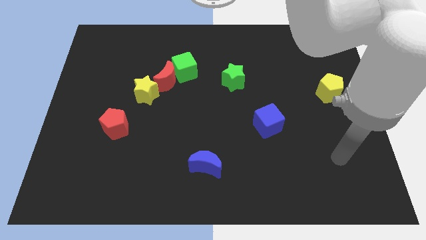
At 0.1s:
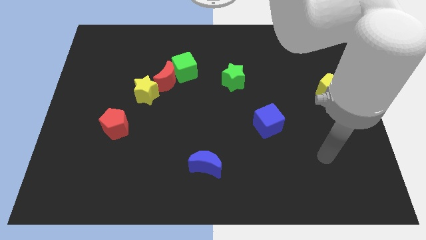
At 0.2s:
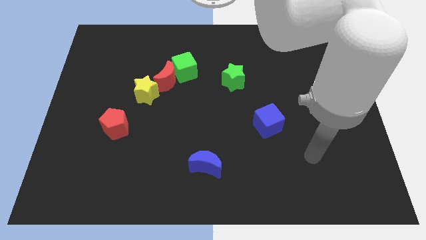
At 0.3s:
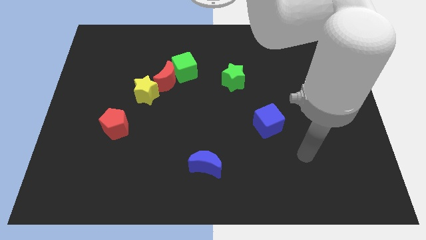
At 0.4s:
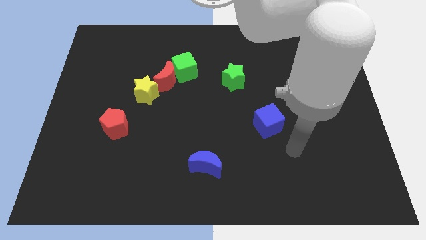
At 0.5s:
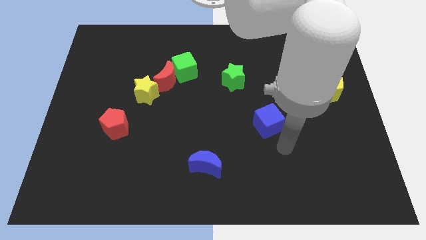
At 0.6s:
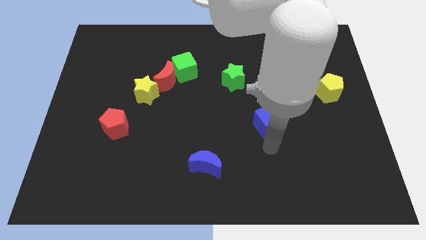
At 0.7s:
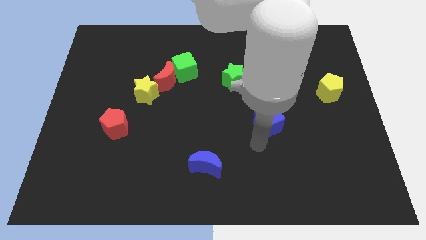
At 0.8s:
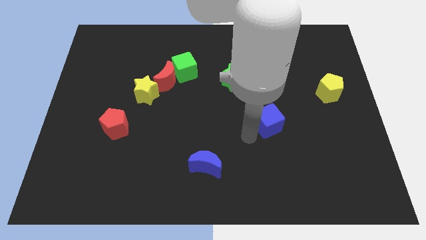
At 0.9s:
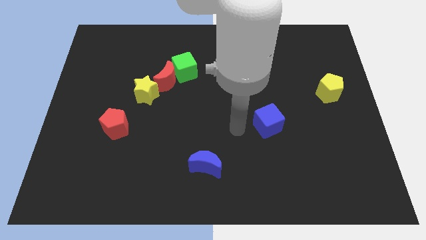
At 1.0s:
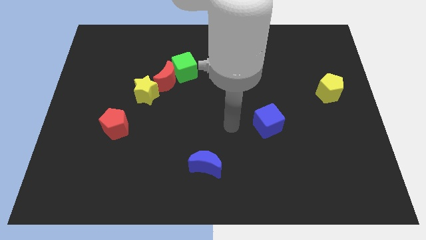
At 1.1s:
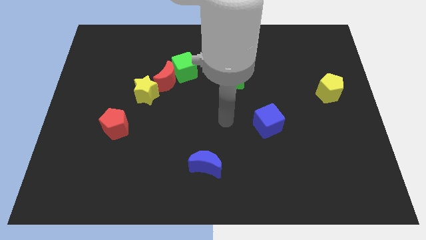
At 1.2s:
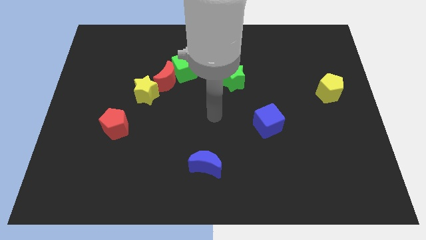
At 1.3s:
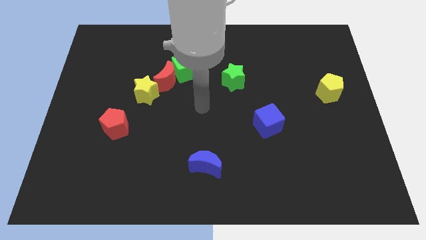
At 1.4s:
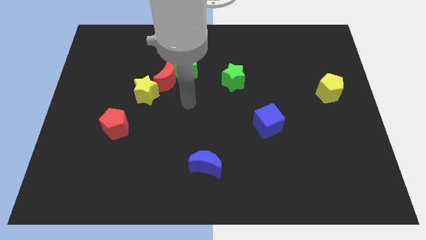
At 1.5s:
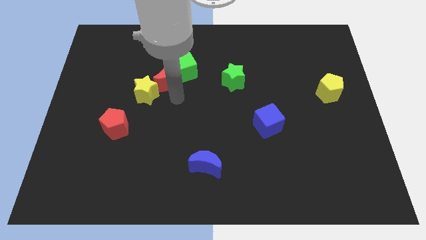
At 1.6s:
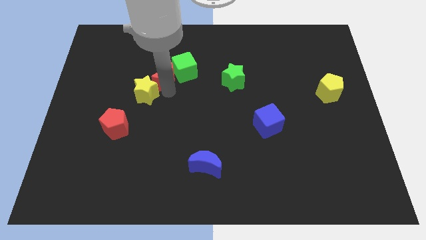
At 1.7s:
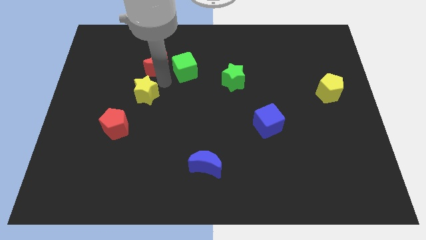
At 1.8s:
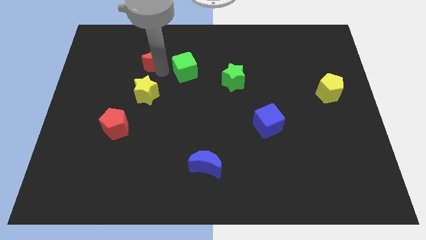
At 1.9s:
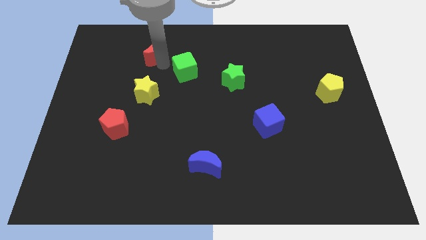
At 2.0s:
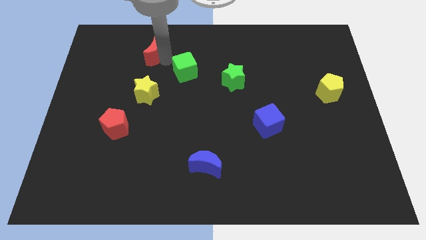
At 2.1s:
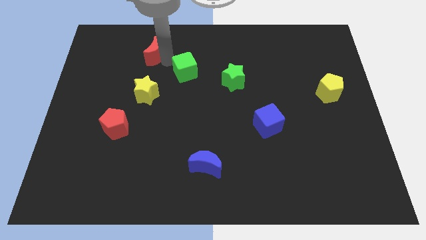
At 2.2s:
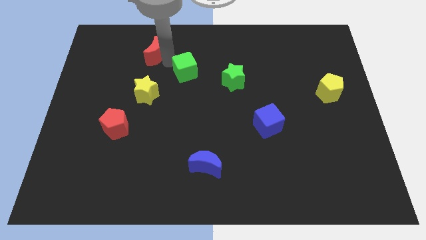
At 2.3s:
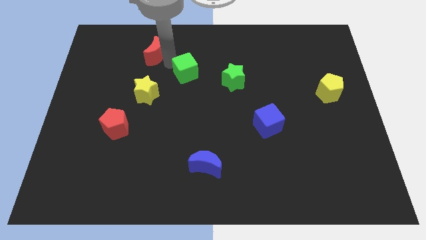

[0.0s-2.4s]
separate the green cube from the red moon

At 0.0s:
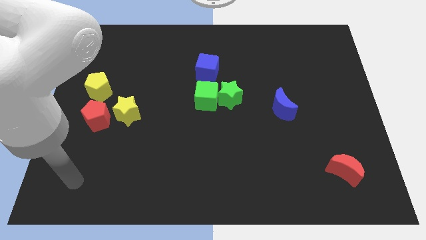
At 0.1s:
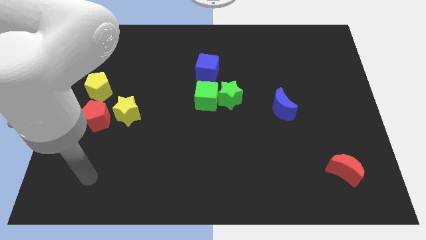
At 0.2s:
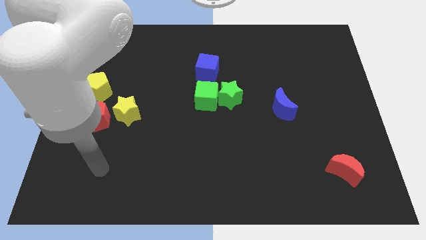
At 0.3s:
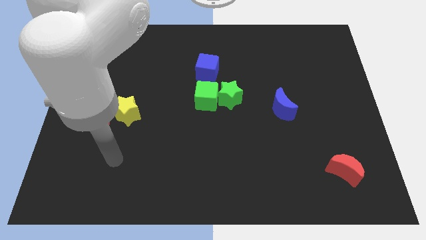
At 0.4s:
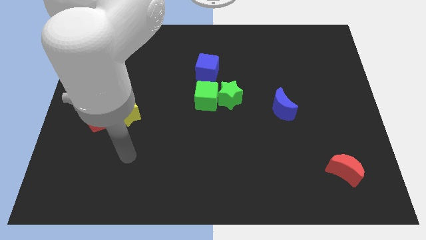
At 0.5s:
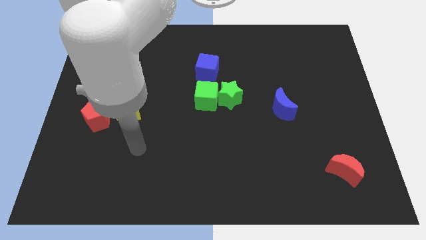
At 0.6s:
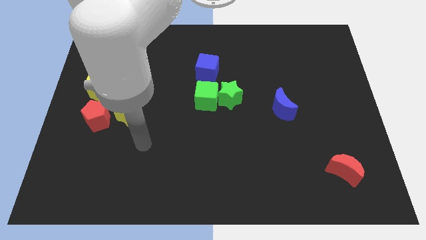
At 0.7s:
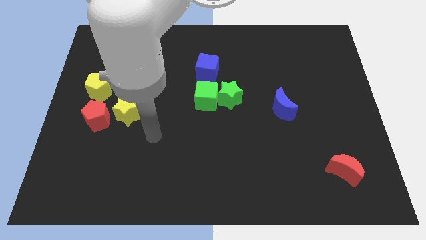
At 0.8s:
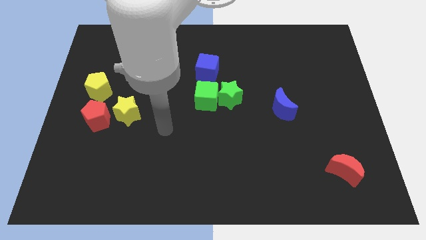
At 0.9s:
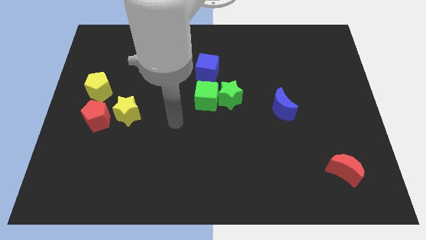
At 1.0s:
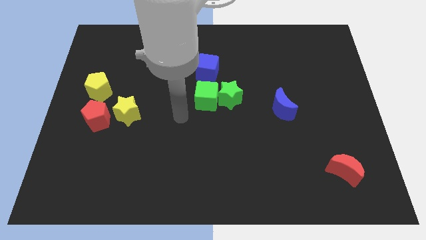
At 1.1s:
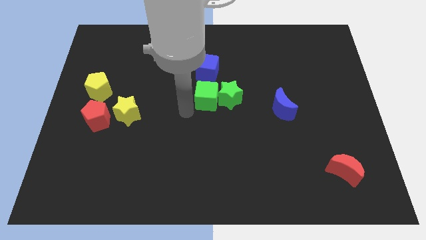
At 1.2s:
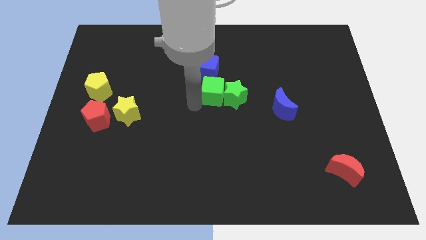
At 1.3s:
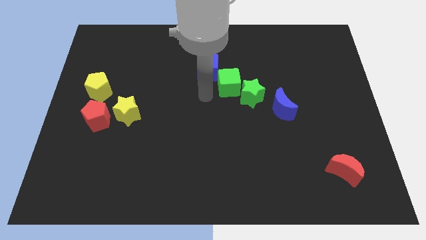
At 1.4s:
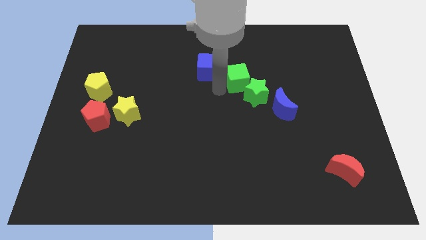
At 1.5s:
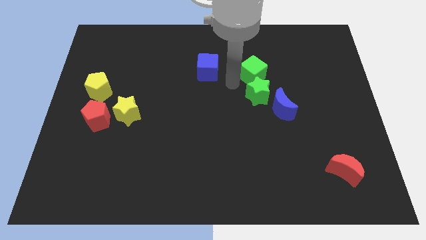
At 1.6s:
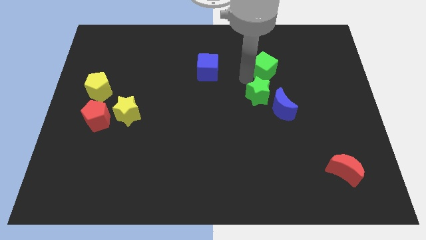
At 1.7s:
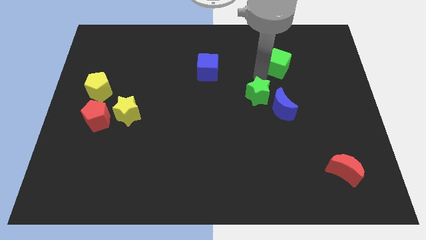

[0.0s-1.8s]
move the green star away from the green cube

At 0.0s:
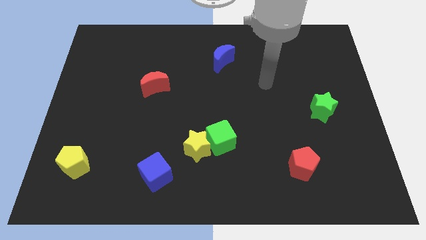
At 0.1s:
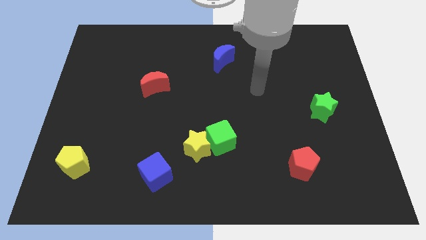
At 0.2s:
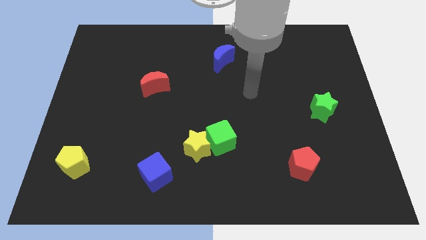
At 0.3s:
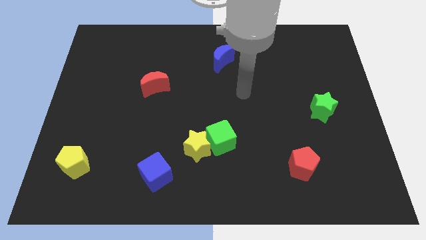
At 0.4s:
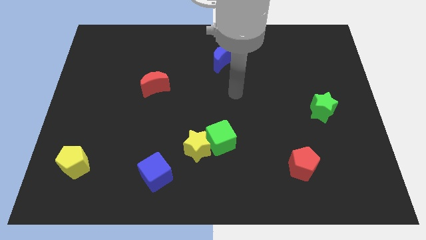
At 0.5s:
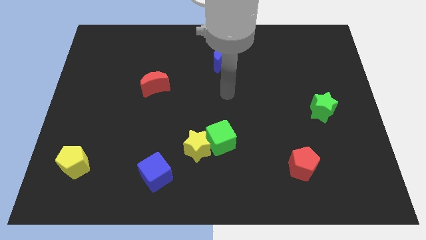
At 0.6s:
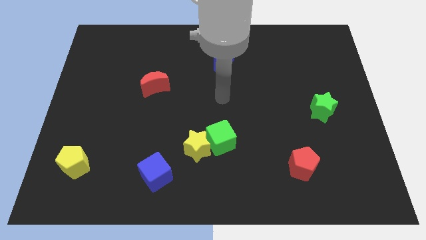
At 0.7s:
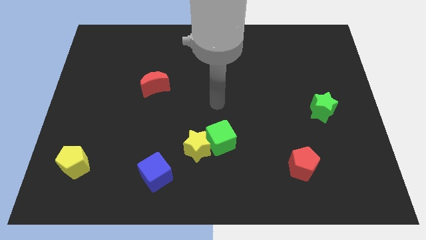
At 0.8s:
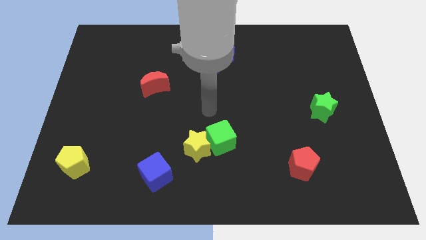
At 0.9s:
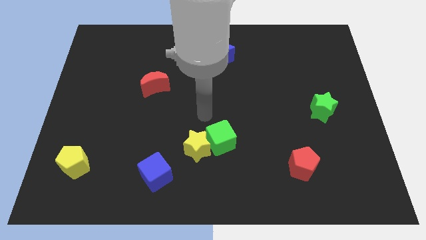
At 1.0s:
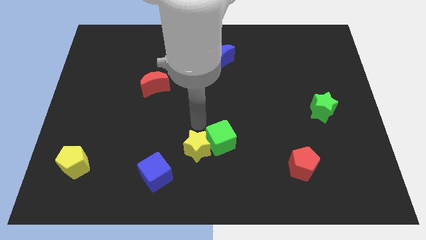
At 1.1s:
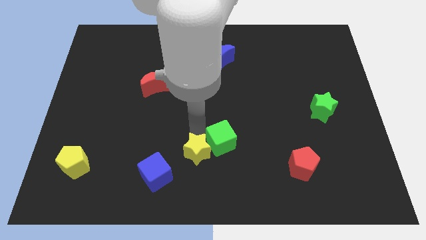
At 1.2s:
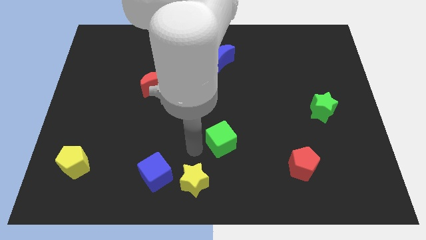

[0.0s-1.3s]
move the green cube away from the yellow star

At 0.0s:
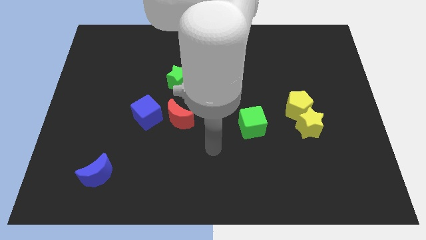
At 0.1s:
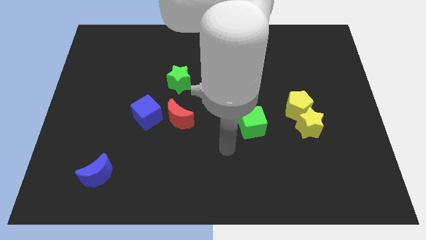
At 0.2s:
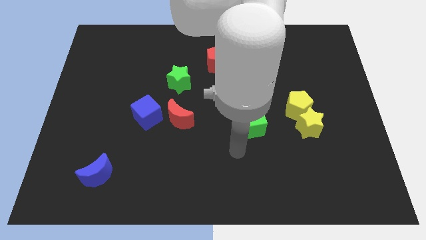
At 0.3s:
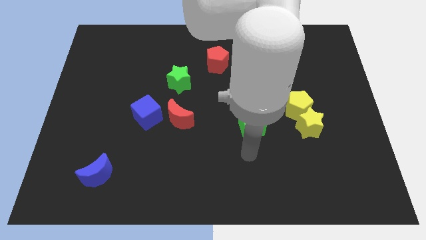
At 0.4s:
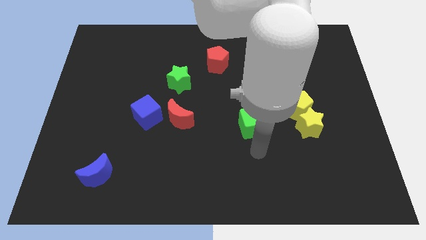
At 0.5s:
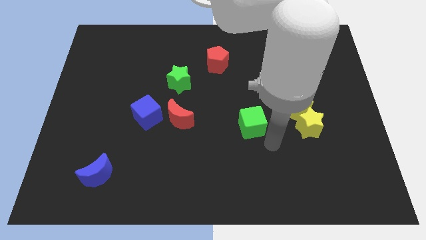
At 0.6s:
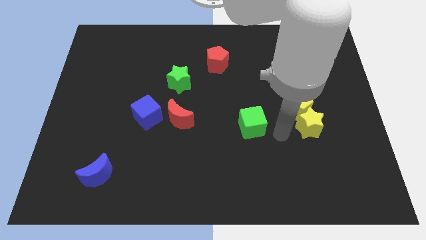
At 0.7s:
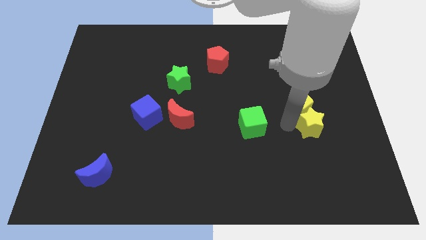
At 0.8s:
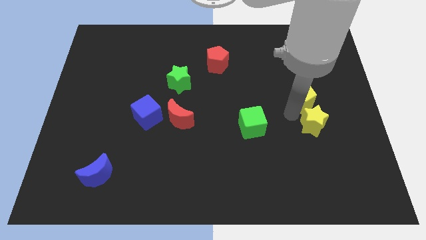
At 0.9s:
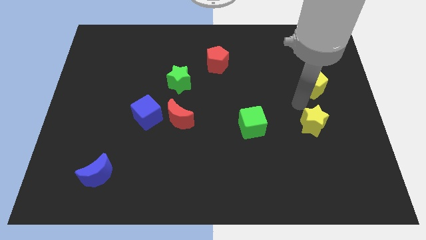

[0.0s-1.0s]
pull the yellow star apart from the yellow pentagon

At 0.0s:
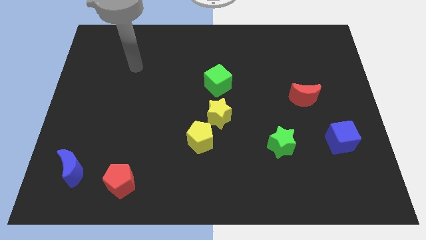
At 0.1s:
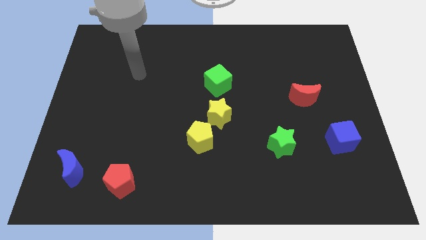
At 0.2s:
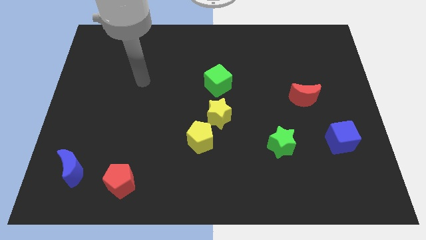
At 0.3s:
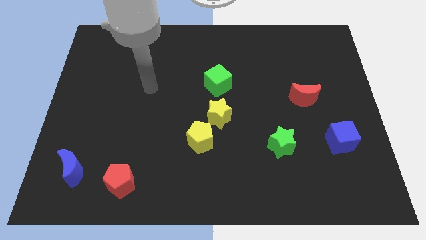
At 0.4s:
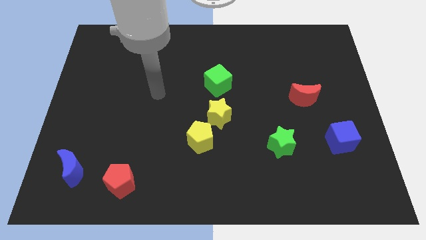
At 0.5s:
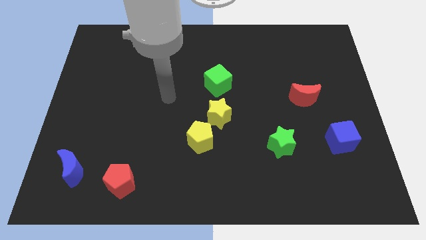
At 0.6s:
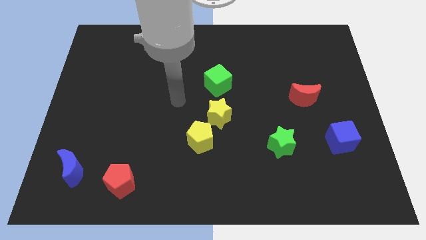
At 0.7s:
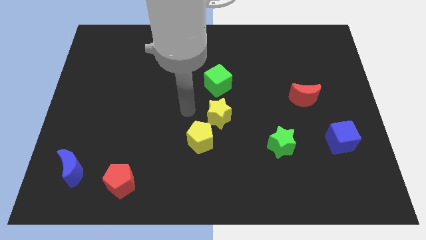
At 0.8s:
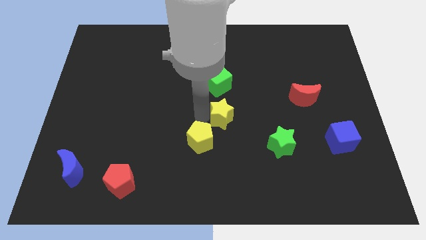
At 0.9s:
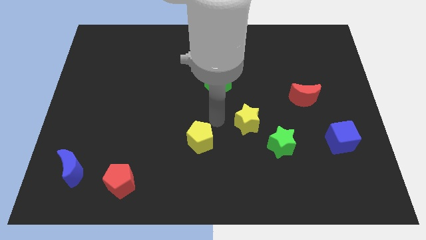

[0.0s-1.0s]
pull the yellow pentagon apart from the yellow star

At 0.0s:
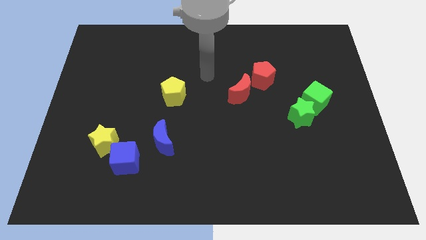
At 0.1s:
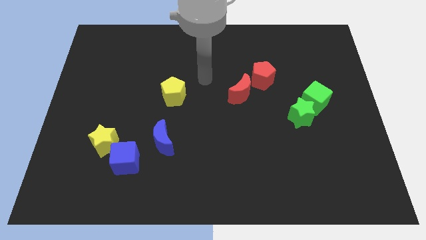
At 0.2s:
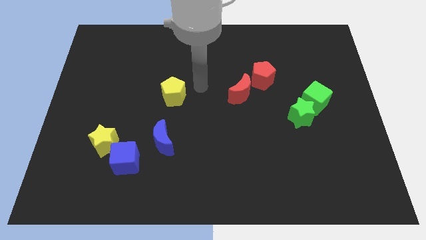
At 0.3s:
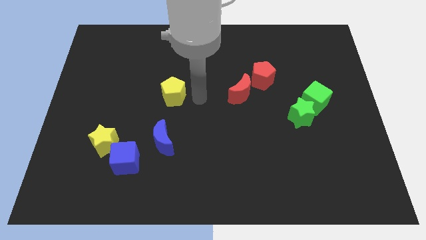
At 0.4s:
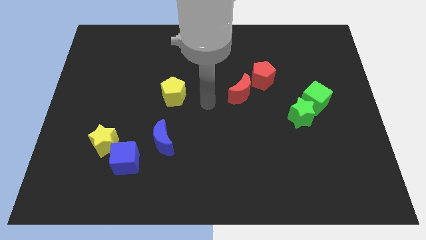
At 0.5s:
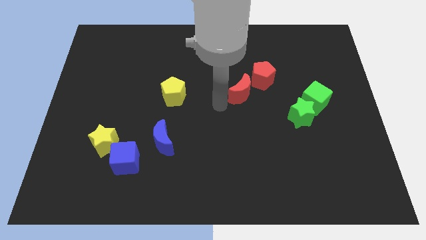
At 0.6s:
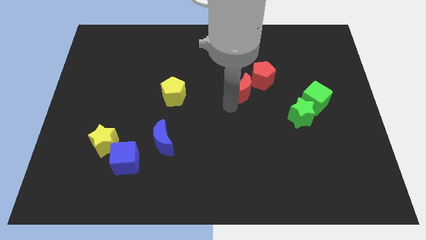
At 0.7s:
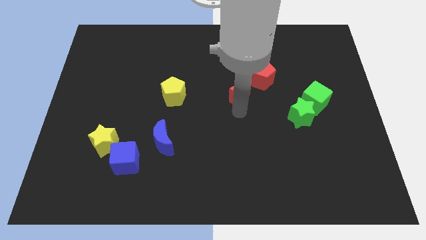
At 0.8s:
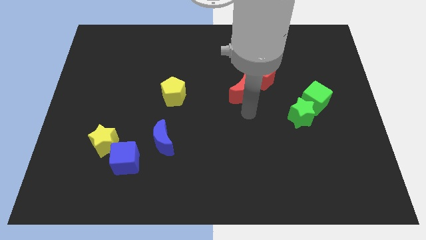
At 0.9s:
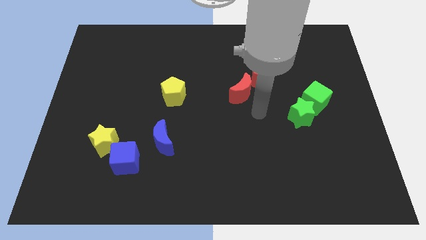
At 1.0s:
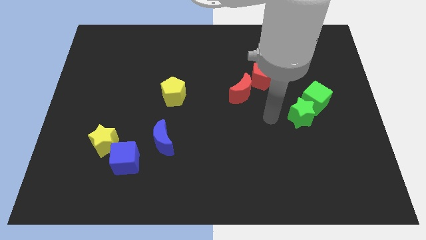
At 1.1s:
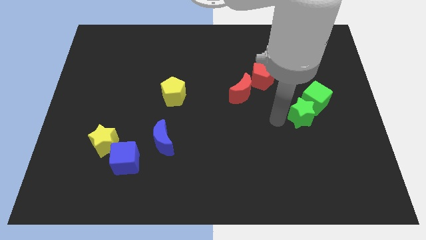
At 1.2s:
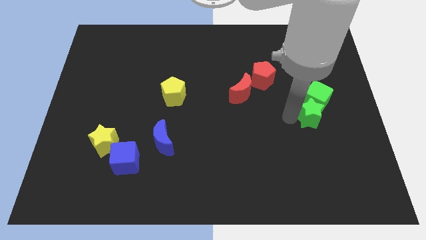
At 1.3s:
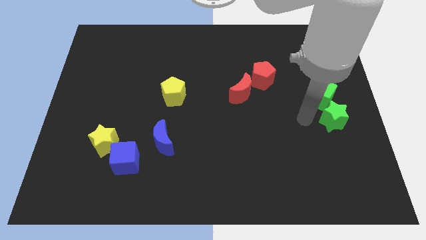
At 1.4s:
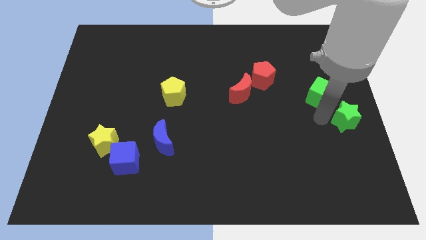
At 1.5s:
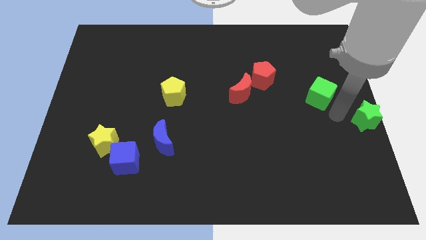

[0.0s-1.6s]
separate the green cube from the green star

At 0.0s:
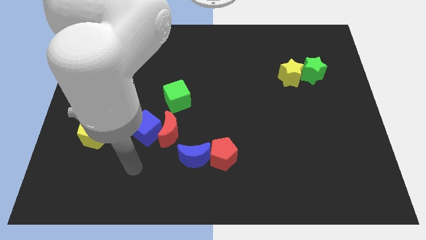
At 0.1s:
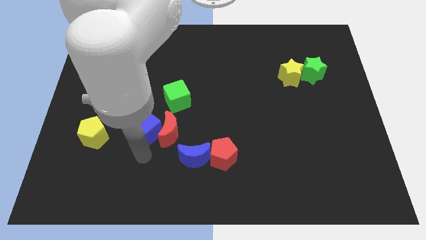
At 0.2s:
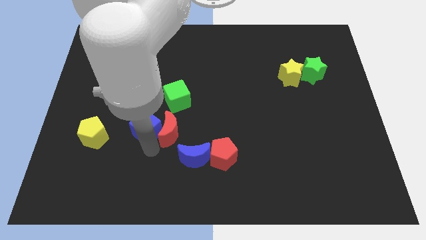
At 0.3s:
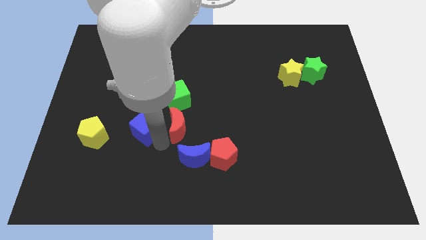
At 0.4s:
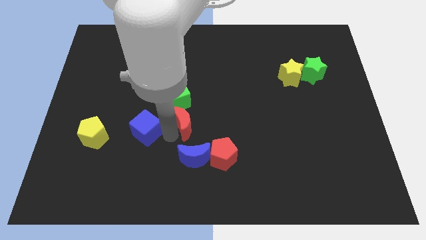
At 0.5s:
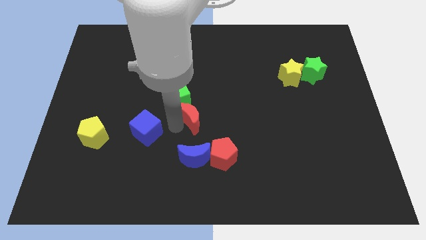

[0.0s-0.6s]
pull the blue cube apart from the red moon
